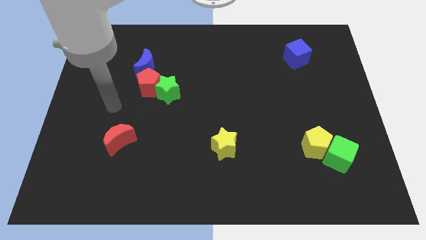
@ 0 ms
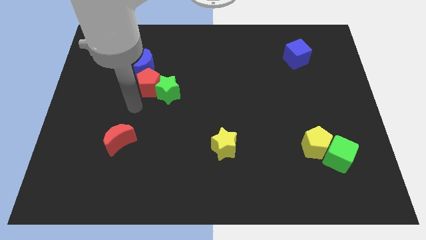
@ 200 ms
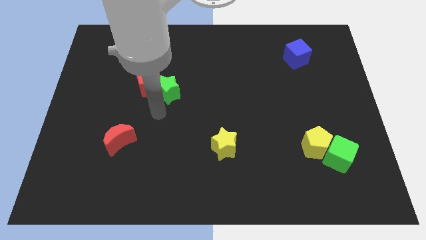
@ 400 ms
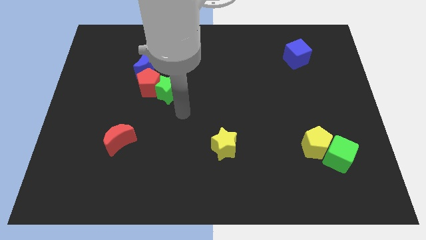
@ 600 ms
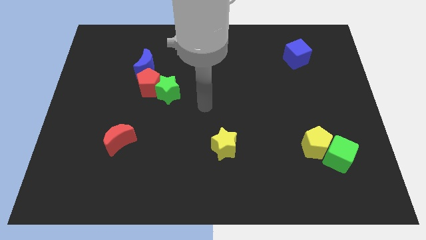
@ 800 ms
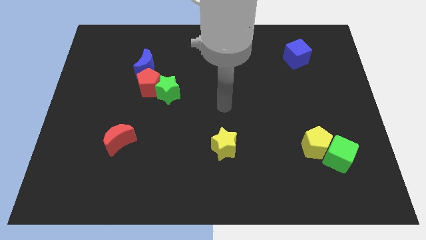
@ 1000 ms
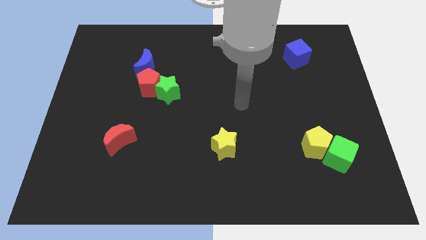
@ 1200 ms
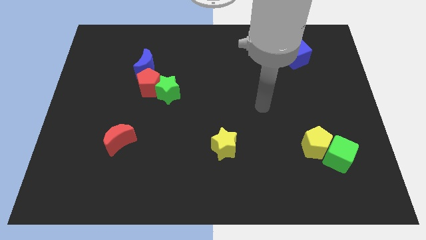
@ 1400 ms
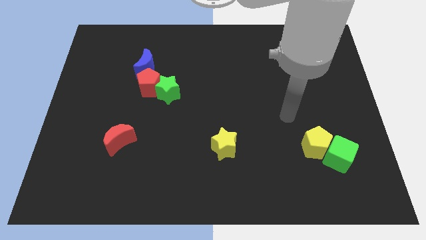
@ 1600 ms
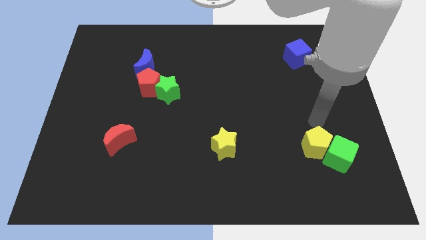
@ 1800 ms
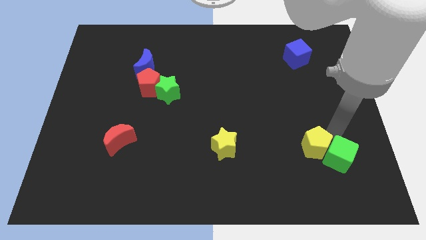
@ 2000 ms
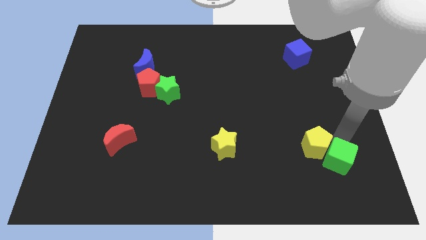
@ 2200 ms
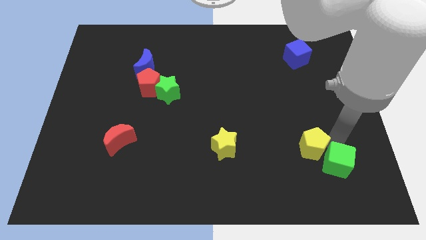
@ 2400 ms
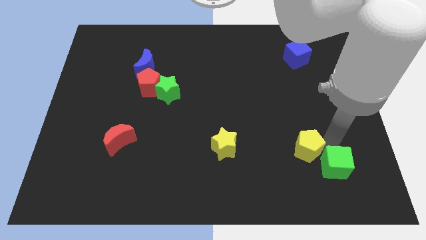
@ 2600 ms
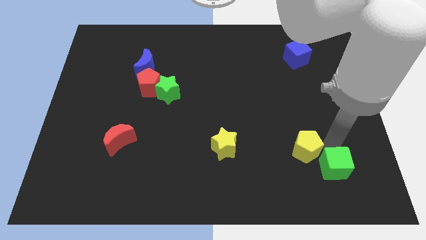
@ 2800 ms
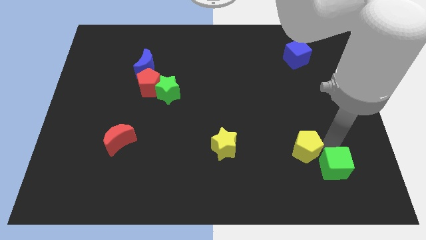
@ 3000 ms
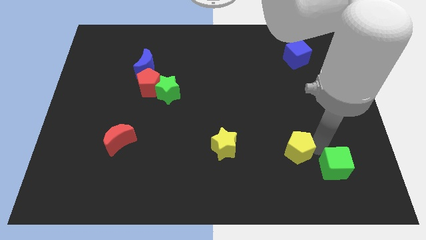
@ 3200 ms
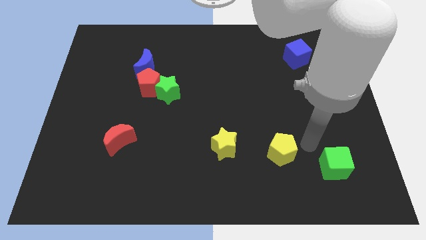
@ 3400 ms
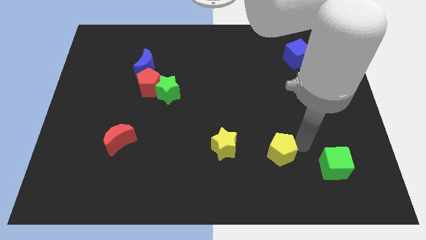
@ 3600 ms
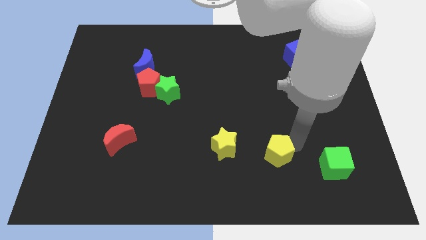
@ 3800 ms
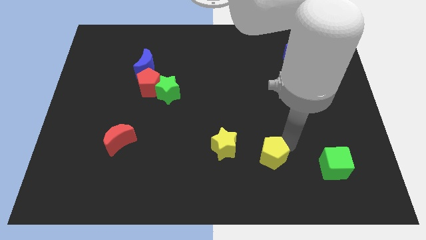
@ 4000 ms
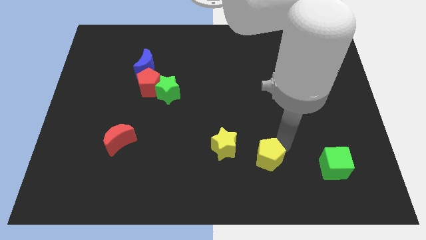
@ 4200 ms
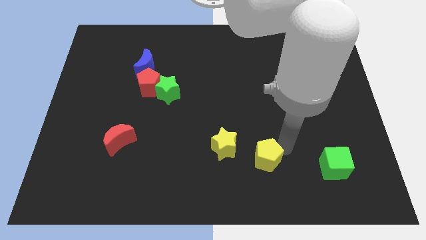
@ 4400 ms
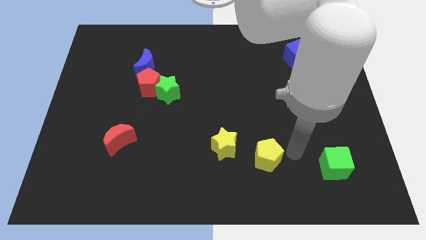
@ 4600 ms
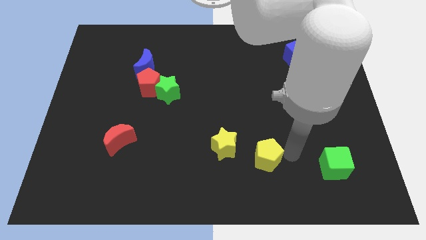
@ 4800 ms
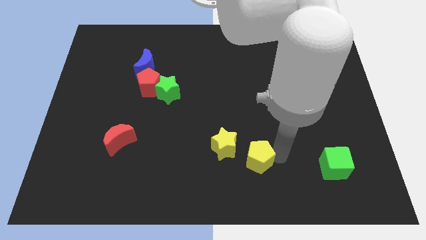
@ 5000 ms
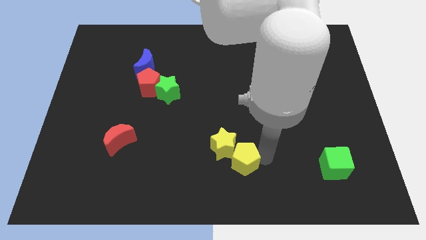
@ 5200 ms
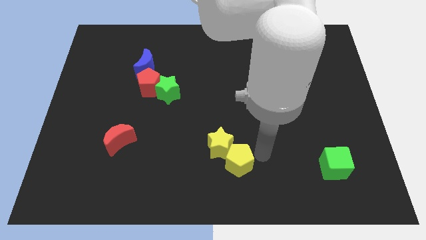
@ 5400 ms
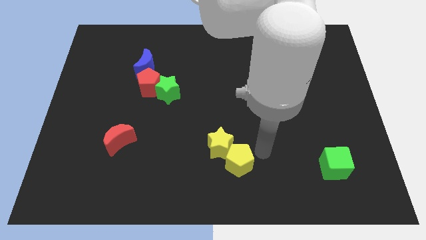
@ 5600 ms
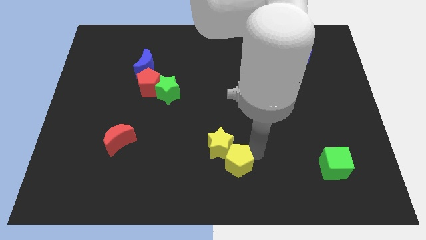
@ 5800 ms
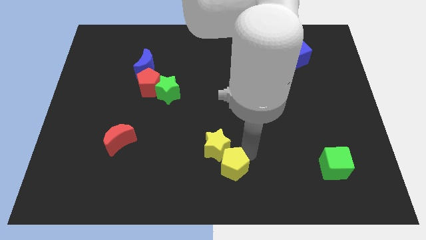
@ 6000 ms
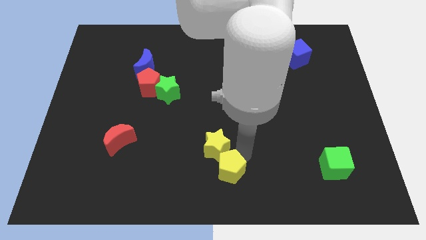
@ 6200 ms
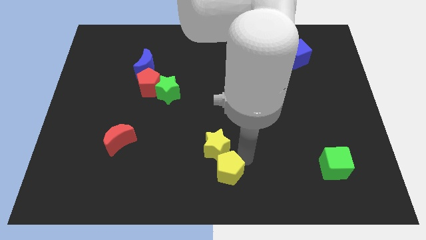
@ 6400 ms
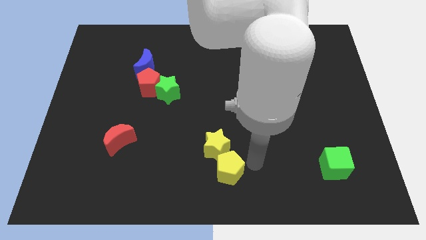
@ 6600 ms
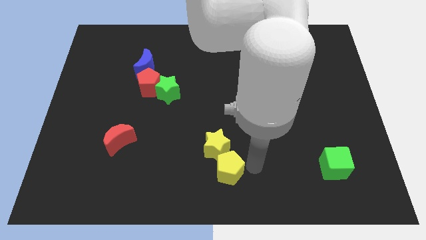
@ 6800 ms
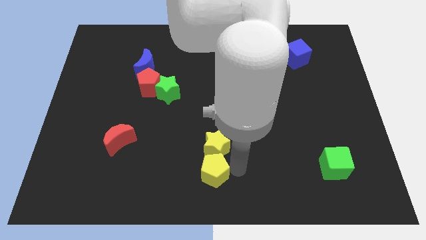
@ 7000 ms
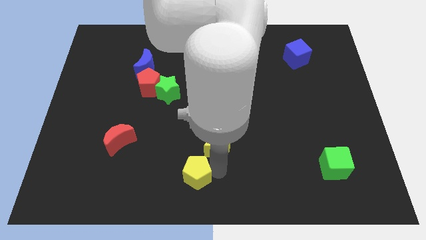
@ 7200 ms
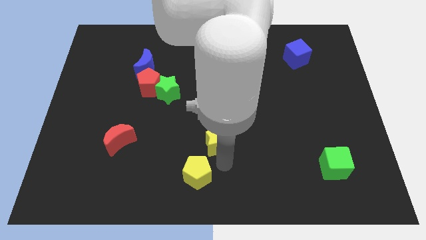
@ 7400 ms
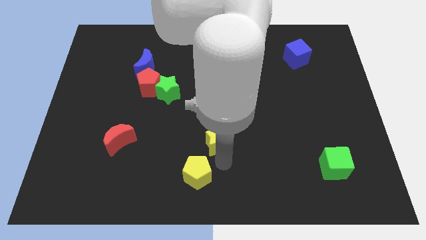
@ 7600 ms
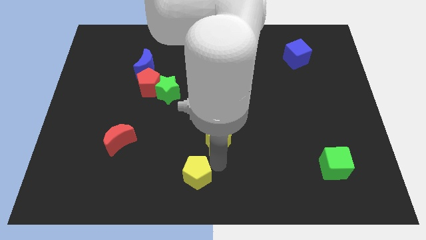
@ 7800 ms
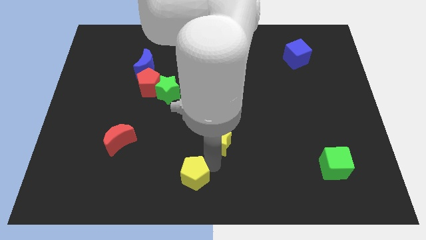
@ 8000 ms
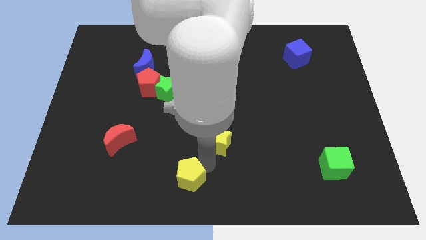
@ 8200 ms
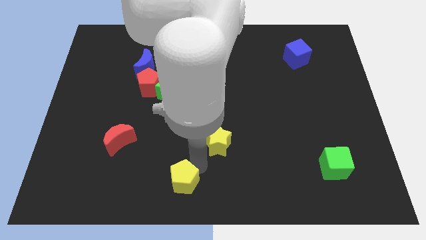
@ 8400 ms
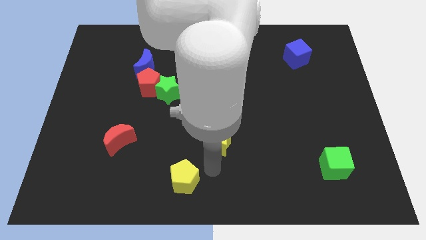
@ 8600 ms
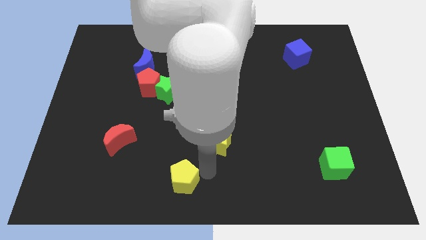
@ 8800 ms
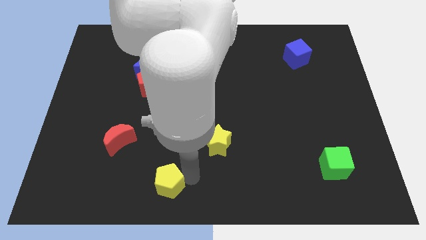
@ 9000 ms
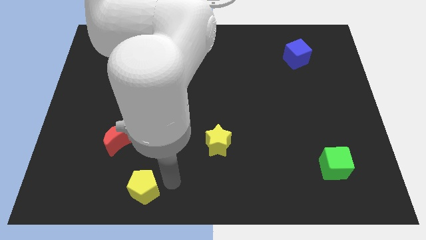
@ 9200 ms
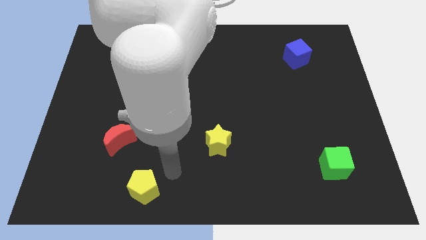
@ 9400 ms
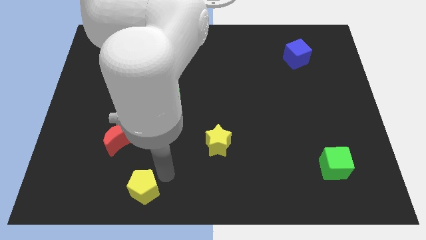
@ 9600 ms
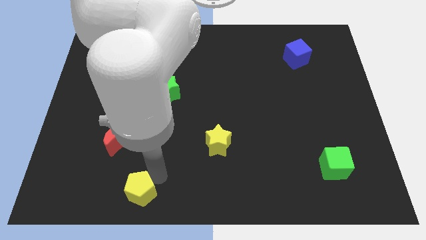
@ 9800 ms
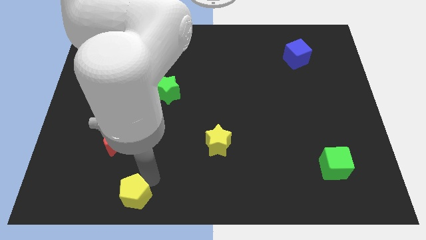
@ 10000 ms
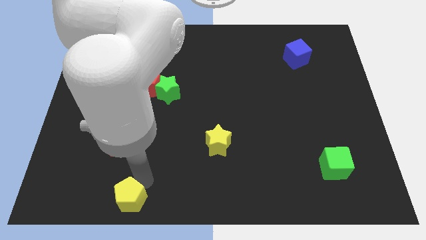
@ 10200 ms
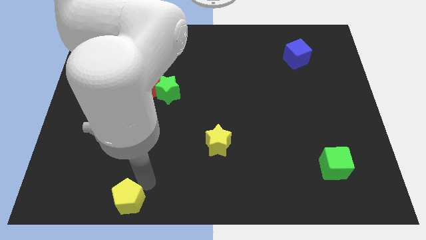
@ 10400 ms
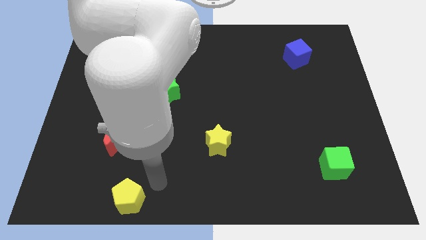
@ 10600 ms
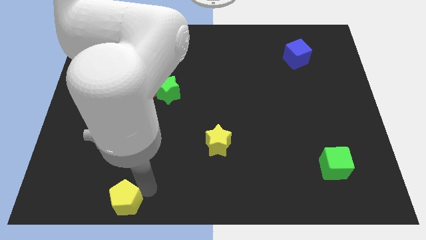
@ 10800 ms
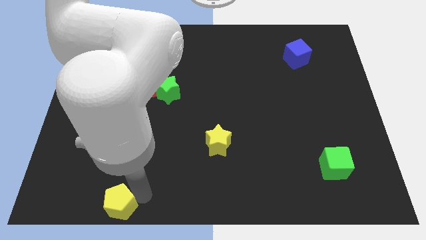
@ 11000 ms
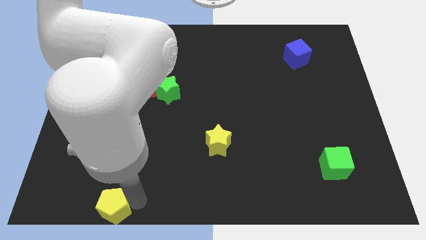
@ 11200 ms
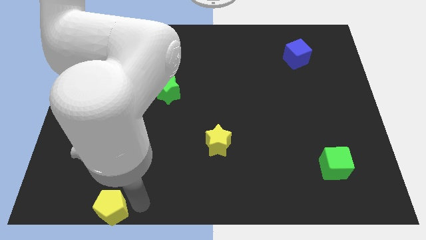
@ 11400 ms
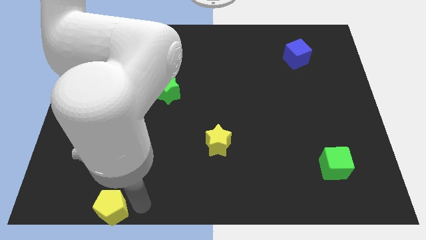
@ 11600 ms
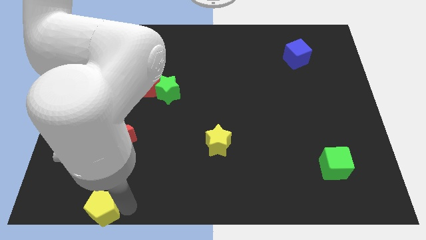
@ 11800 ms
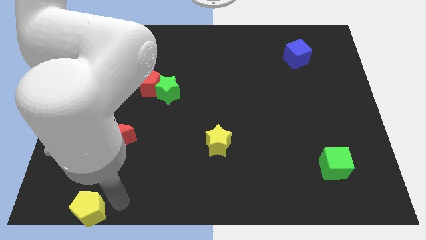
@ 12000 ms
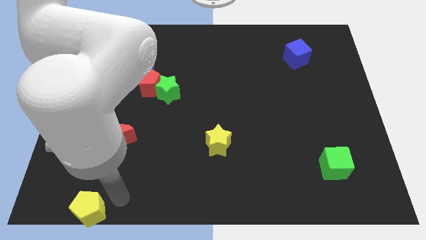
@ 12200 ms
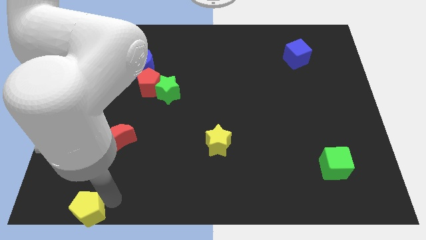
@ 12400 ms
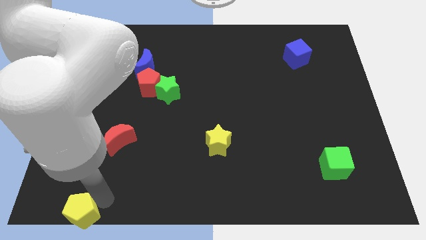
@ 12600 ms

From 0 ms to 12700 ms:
push the yellow pentagon to the bottom left of the board
